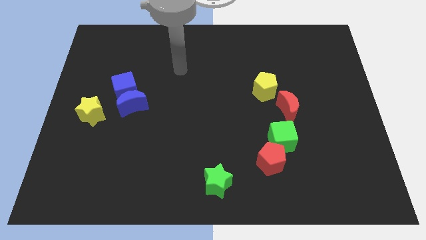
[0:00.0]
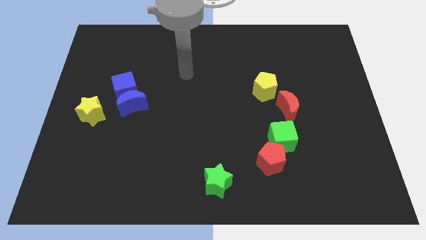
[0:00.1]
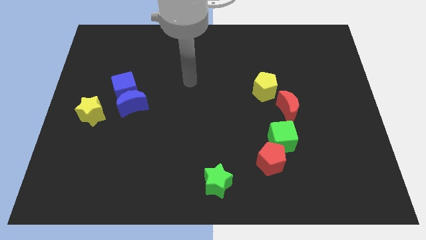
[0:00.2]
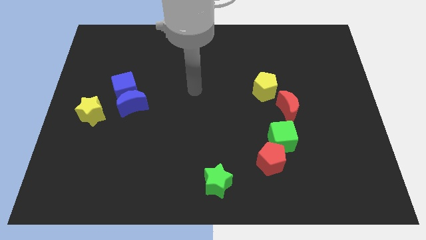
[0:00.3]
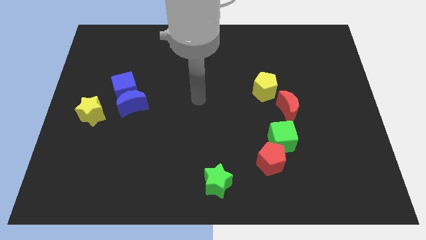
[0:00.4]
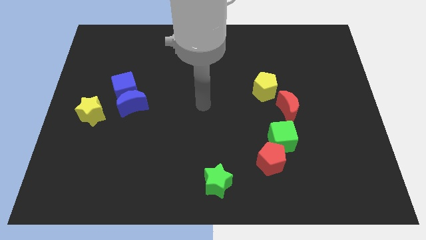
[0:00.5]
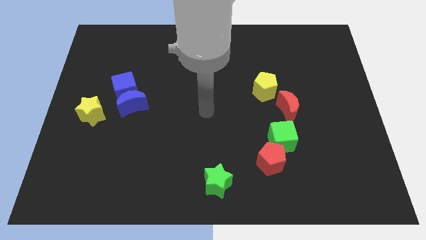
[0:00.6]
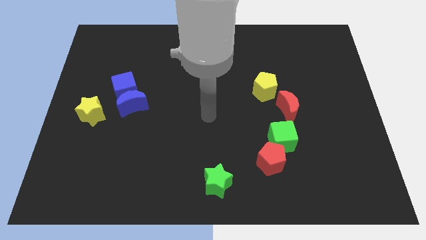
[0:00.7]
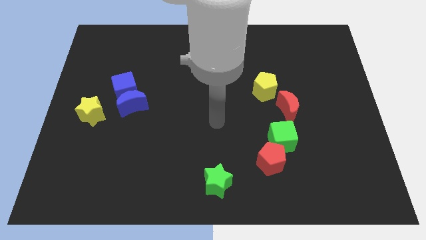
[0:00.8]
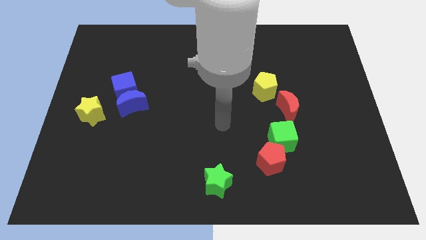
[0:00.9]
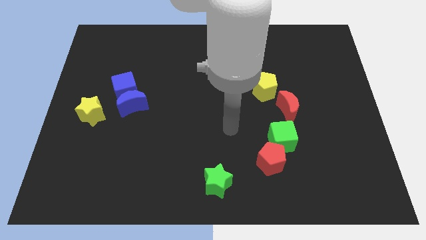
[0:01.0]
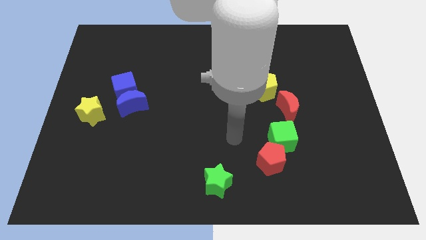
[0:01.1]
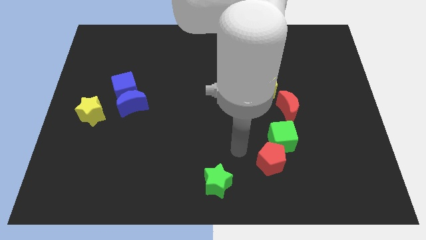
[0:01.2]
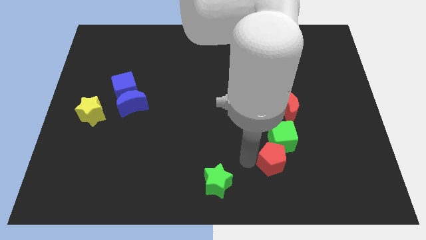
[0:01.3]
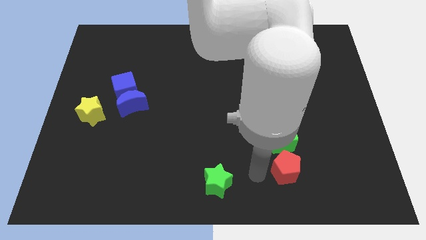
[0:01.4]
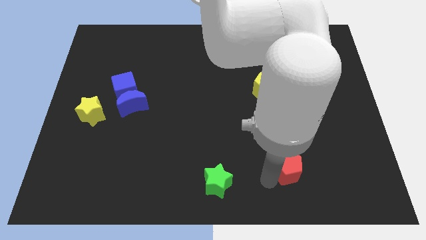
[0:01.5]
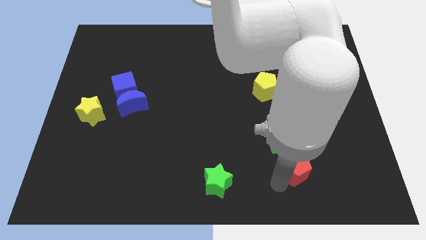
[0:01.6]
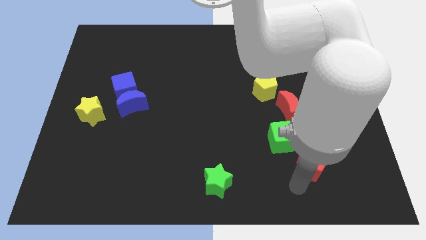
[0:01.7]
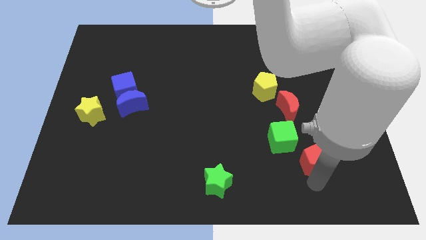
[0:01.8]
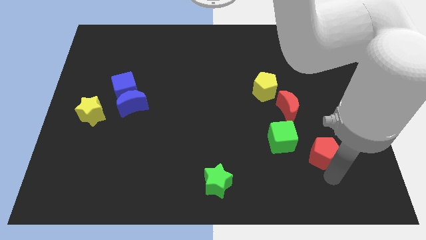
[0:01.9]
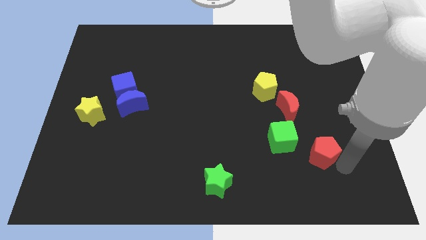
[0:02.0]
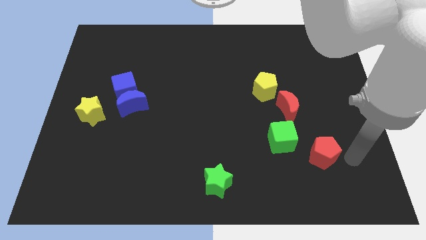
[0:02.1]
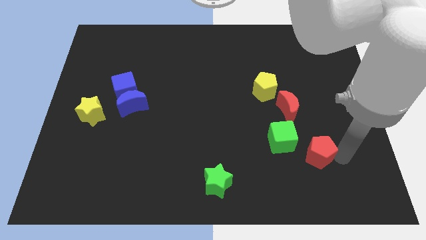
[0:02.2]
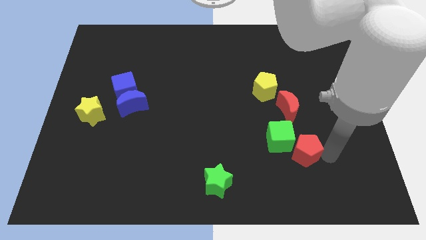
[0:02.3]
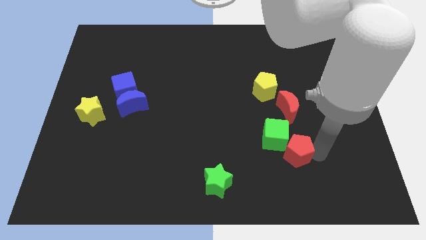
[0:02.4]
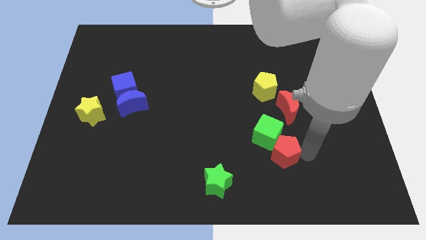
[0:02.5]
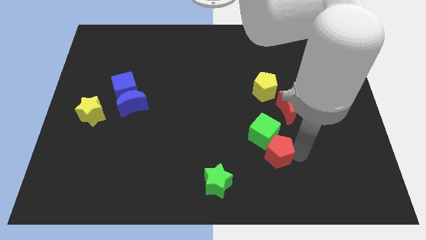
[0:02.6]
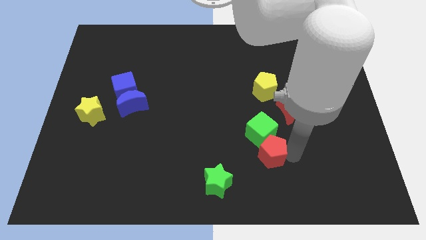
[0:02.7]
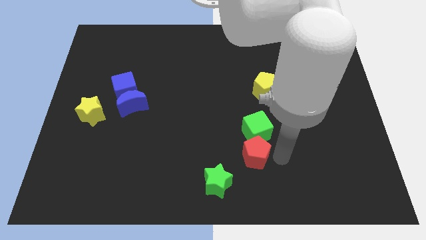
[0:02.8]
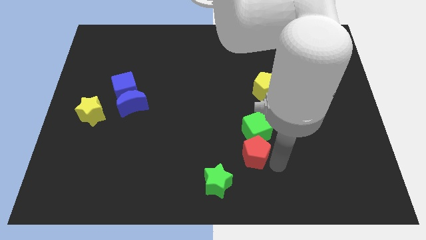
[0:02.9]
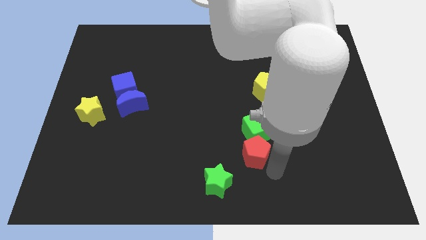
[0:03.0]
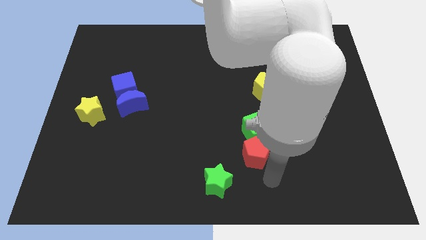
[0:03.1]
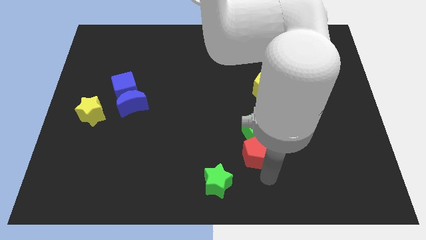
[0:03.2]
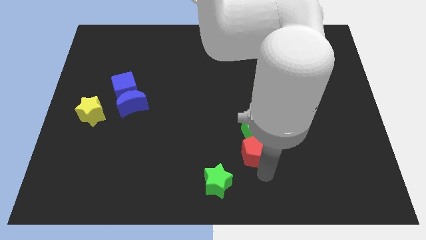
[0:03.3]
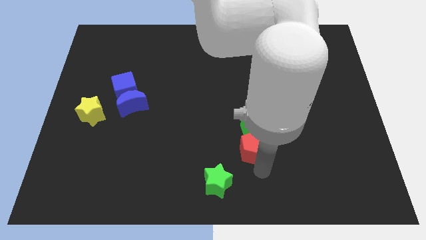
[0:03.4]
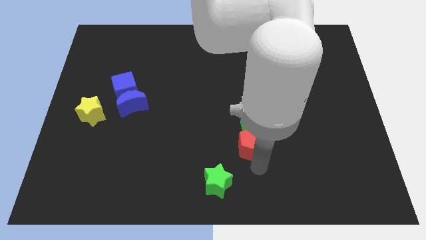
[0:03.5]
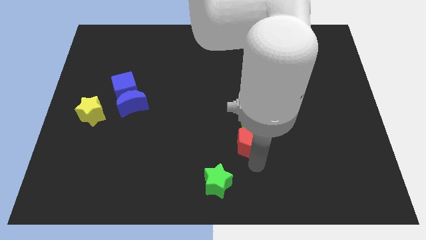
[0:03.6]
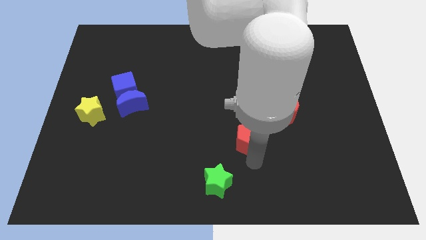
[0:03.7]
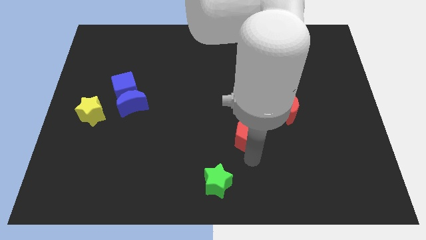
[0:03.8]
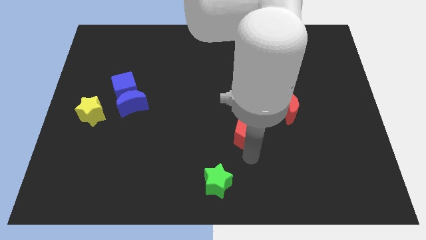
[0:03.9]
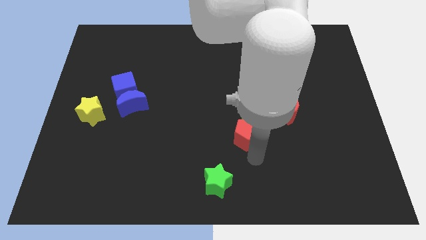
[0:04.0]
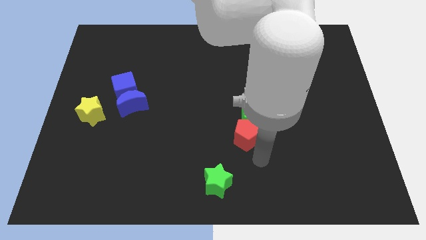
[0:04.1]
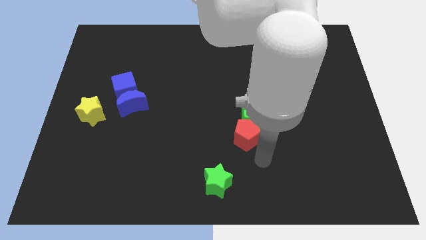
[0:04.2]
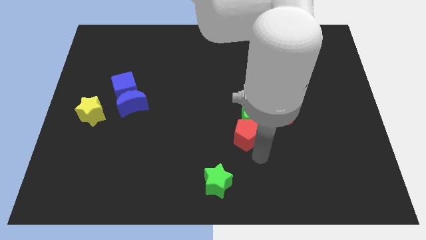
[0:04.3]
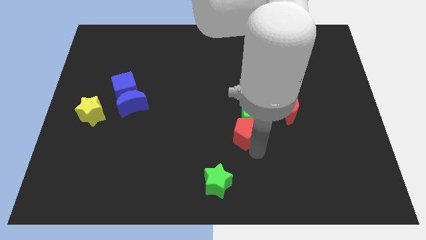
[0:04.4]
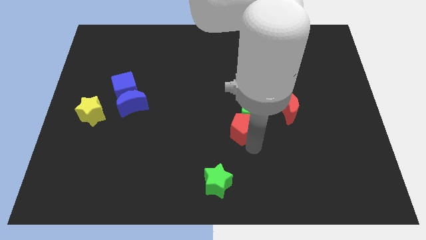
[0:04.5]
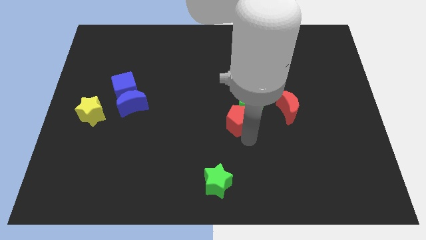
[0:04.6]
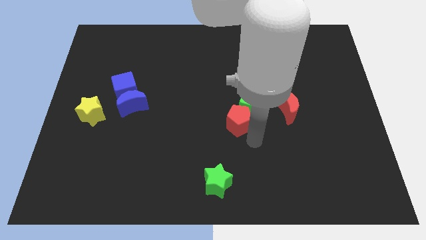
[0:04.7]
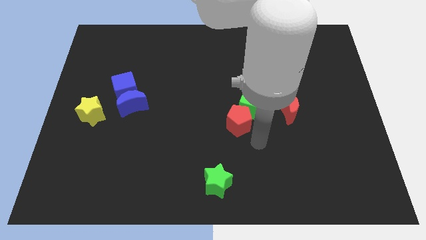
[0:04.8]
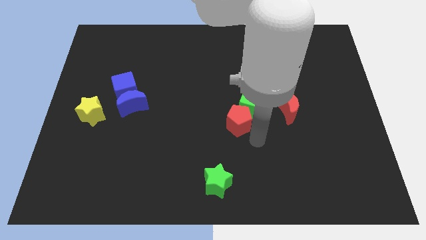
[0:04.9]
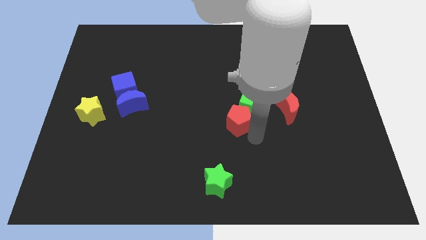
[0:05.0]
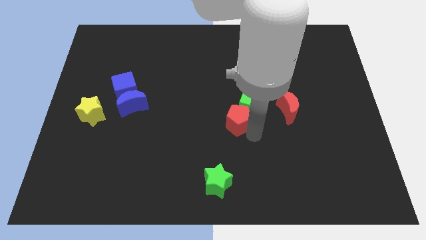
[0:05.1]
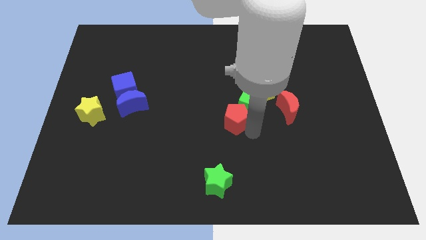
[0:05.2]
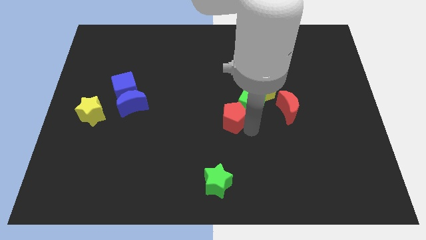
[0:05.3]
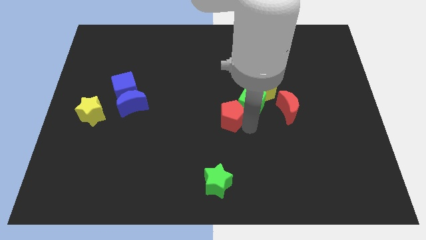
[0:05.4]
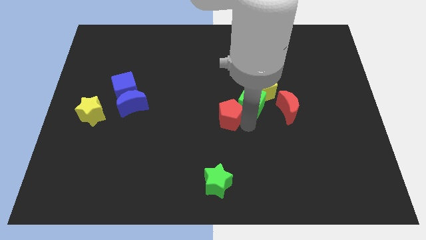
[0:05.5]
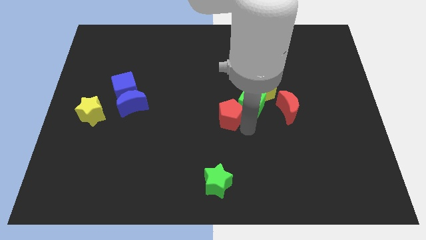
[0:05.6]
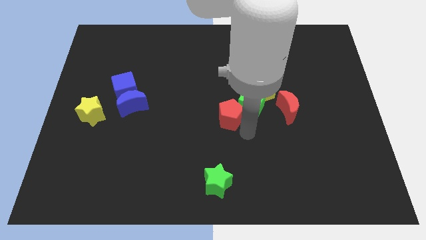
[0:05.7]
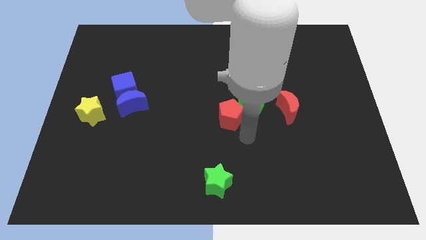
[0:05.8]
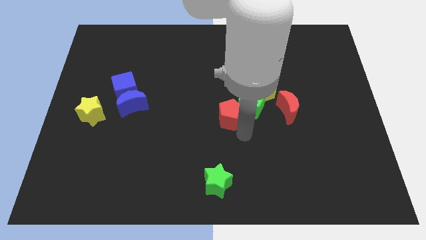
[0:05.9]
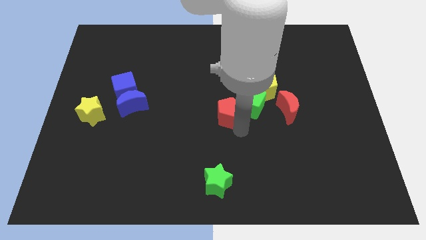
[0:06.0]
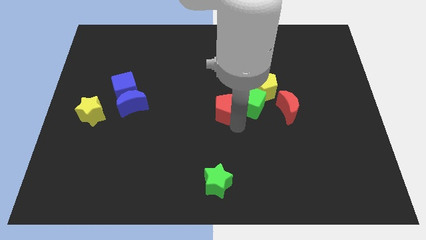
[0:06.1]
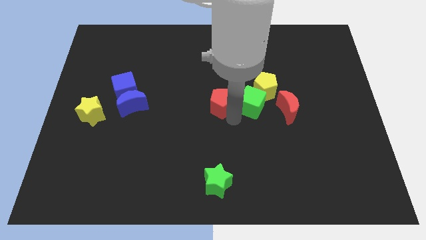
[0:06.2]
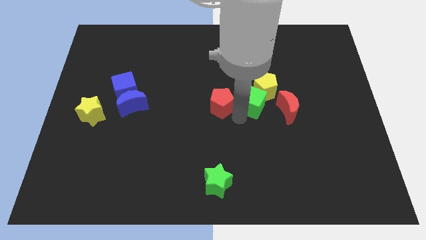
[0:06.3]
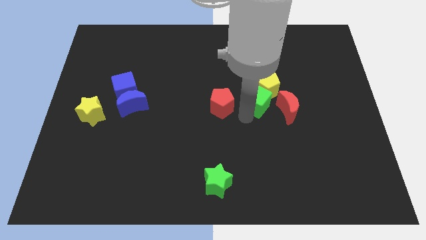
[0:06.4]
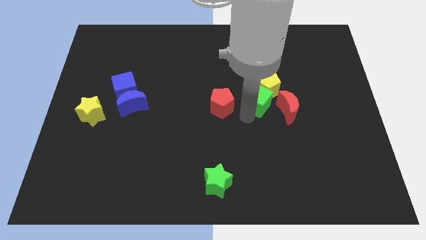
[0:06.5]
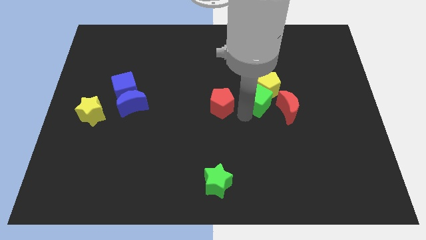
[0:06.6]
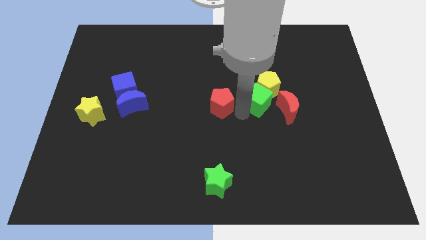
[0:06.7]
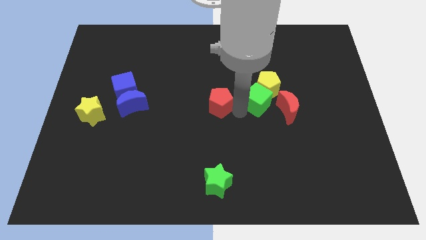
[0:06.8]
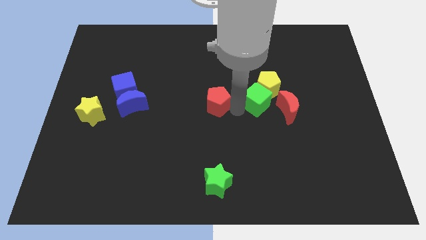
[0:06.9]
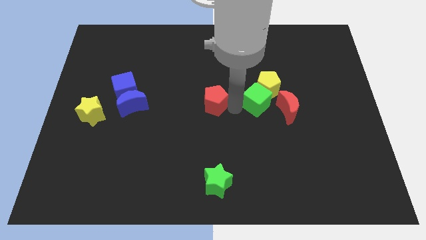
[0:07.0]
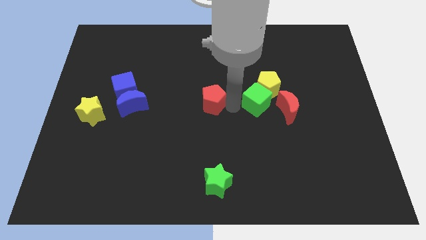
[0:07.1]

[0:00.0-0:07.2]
push the red pentagon up and left
